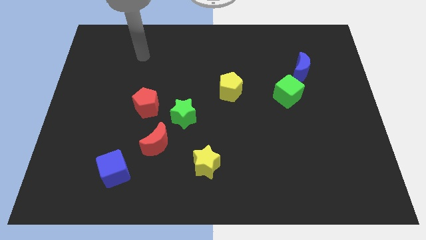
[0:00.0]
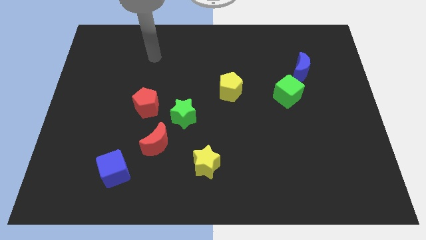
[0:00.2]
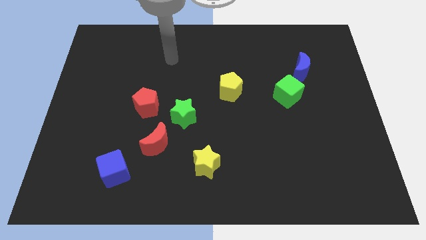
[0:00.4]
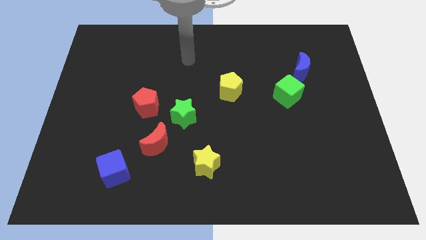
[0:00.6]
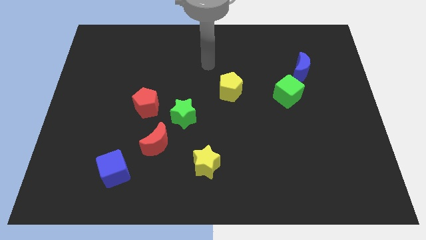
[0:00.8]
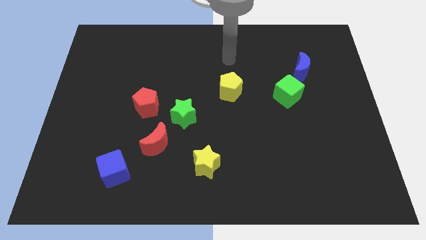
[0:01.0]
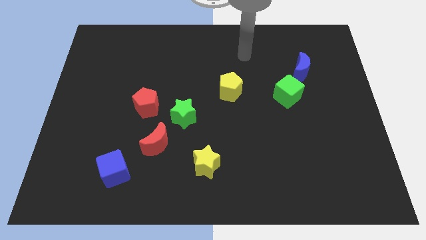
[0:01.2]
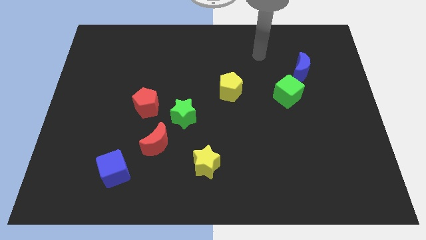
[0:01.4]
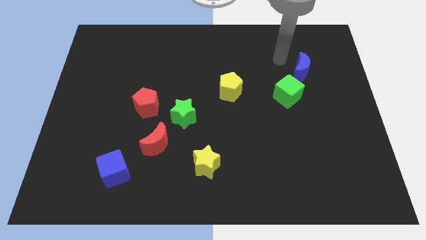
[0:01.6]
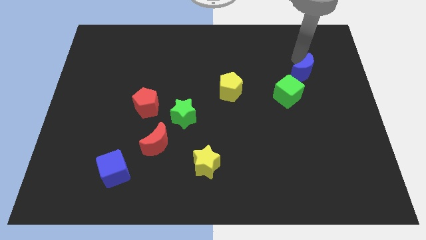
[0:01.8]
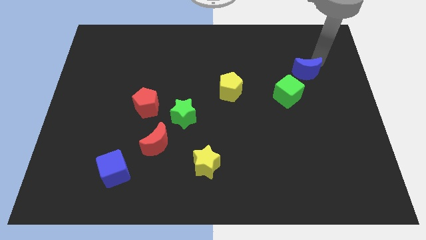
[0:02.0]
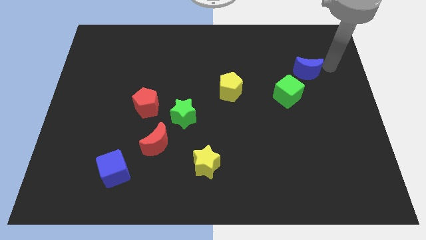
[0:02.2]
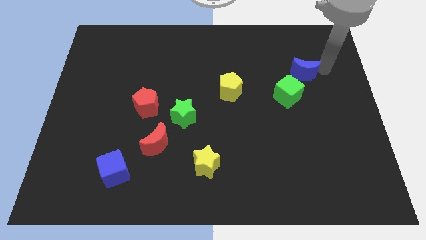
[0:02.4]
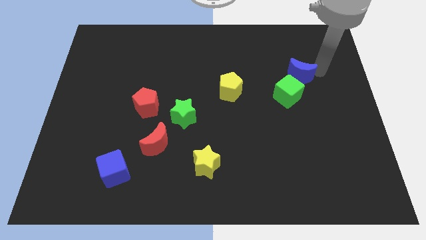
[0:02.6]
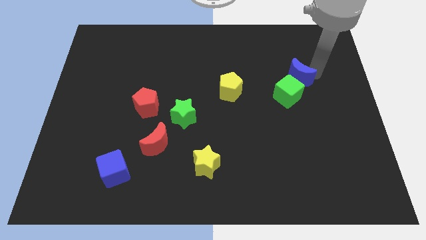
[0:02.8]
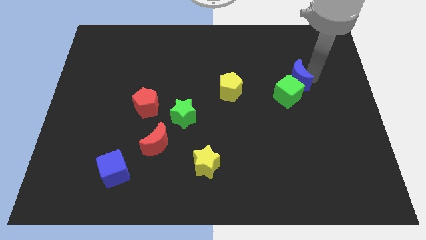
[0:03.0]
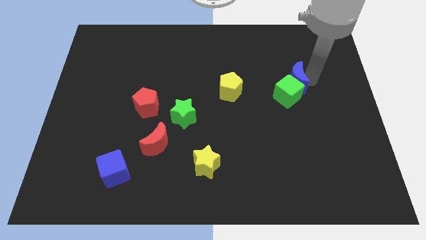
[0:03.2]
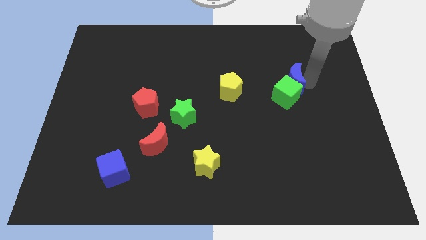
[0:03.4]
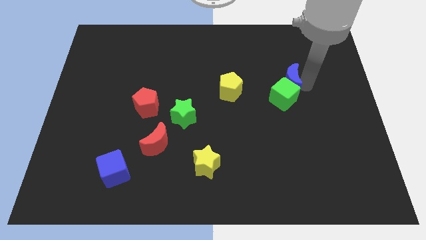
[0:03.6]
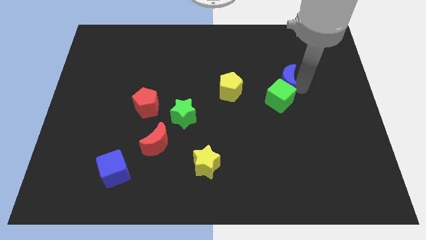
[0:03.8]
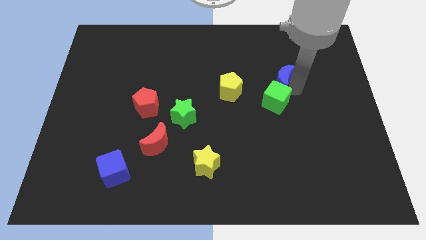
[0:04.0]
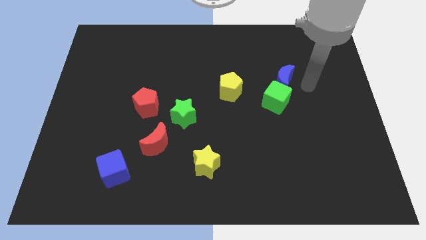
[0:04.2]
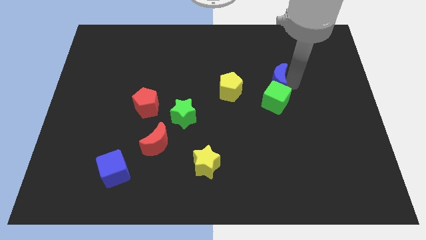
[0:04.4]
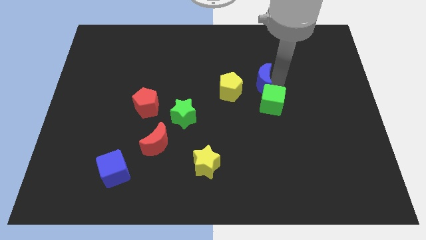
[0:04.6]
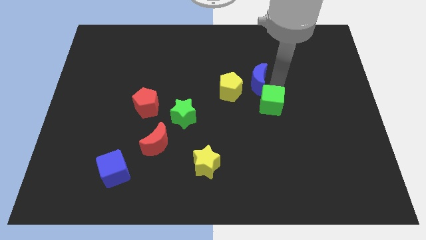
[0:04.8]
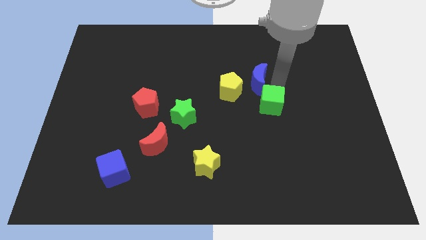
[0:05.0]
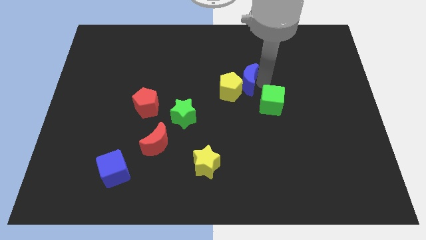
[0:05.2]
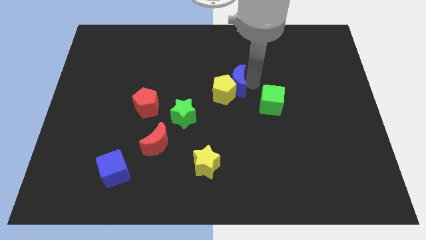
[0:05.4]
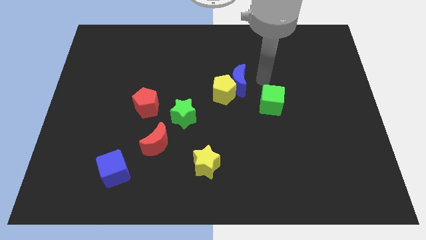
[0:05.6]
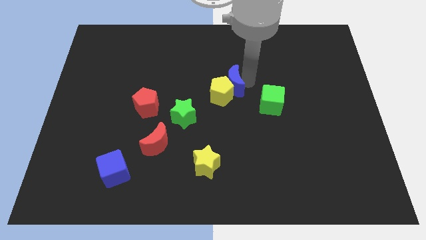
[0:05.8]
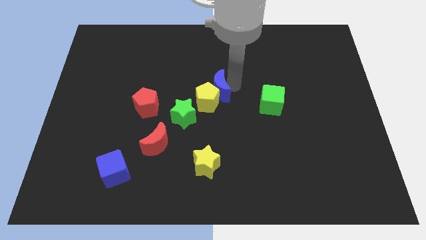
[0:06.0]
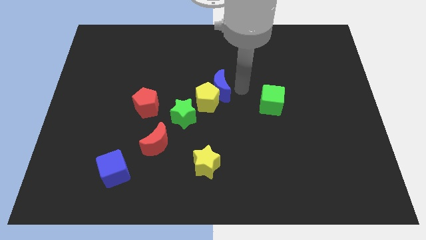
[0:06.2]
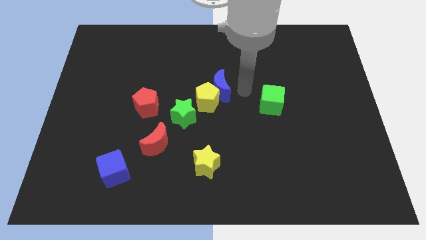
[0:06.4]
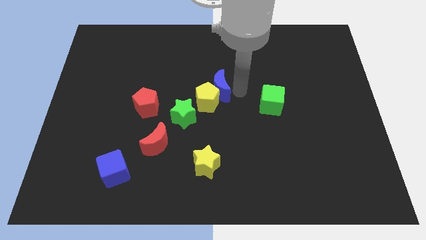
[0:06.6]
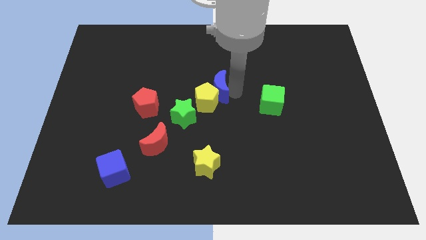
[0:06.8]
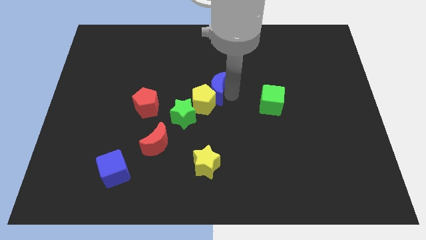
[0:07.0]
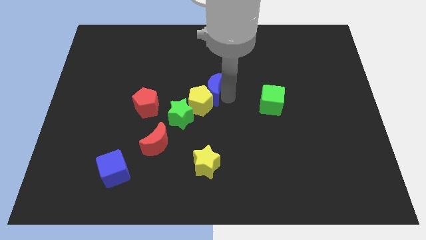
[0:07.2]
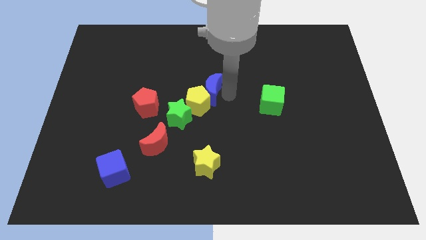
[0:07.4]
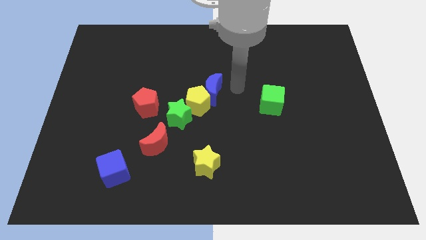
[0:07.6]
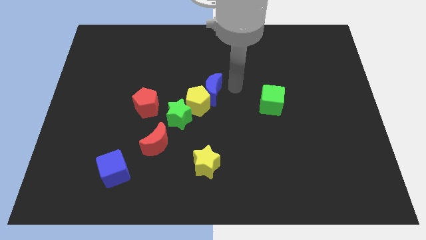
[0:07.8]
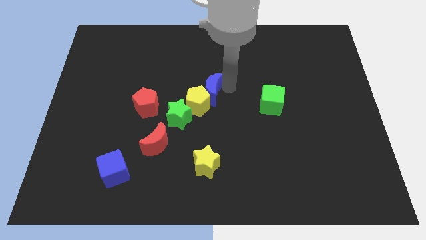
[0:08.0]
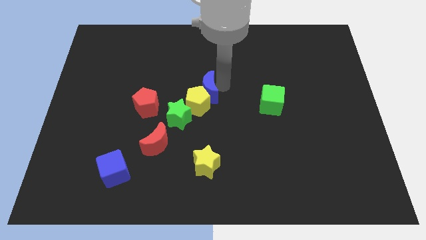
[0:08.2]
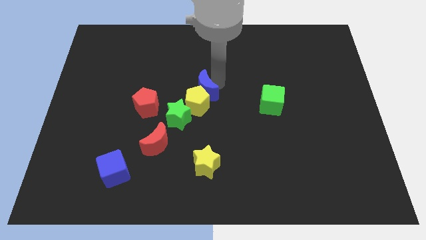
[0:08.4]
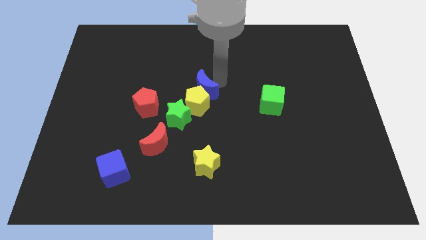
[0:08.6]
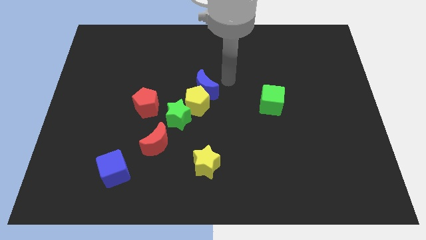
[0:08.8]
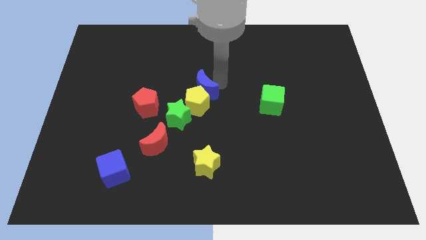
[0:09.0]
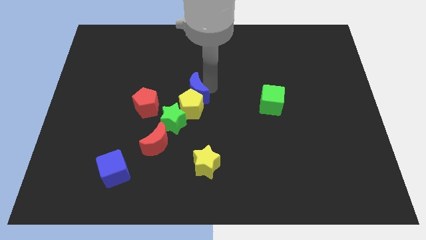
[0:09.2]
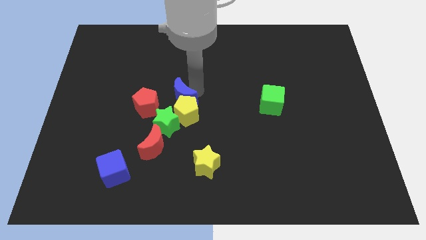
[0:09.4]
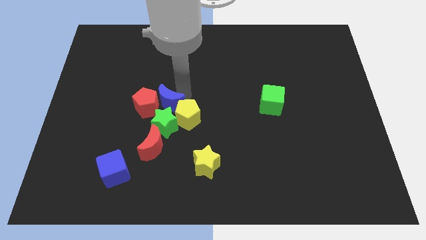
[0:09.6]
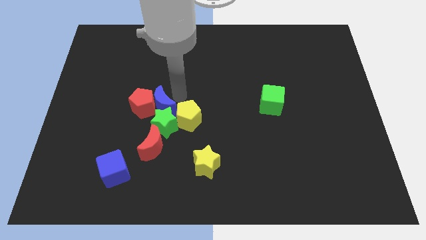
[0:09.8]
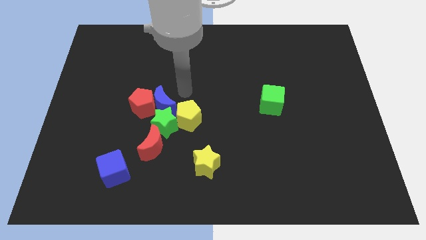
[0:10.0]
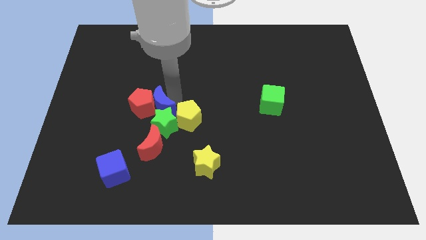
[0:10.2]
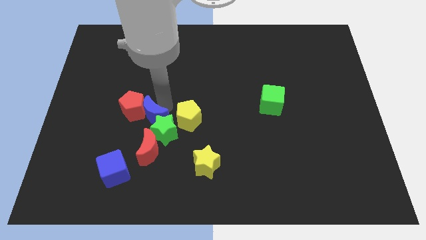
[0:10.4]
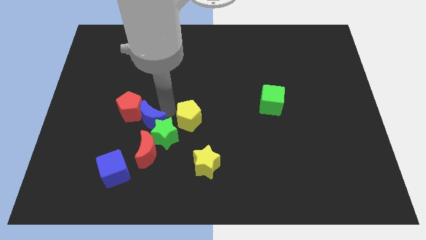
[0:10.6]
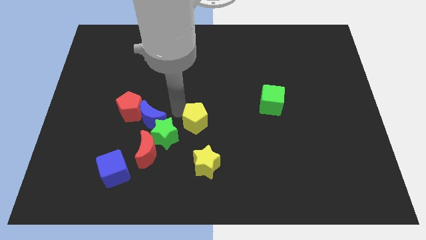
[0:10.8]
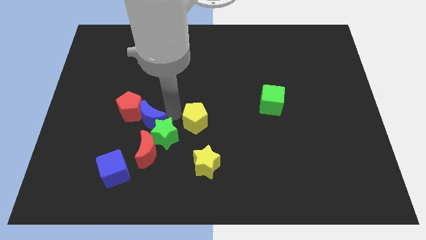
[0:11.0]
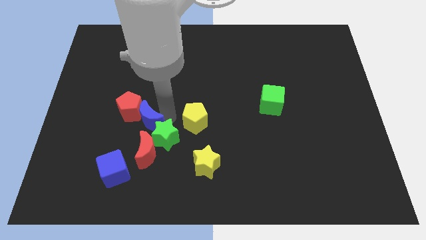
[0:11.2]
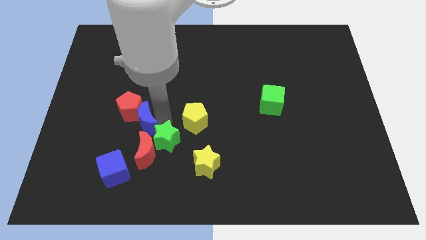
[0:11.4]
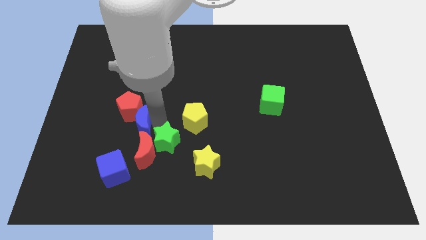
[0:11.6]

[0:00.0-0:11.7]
move the blue moon above the blue cube

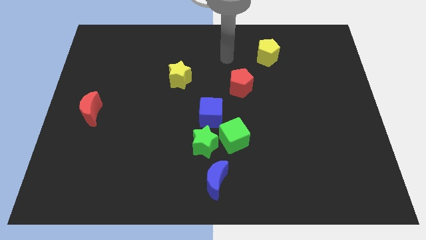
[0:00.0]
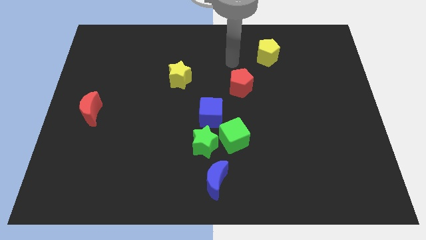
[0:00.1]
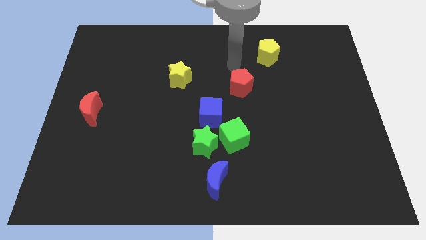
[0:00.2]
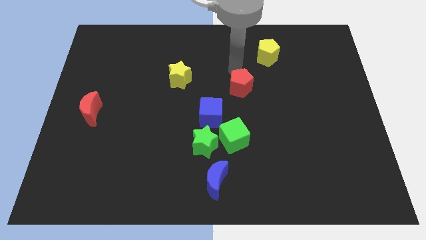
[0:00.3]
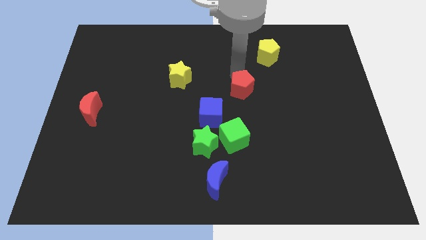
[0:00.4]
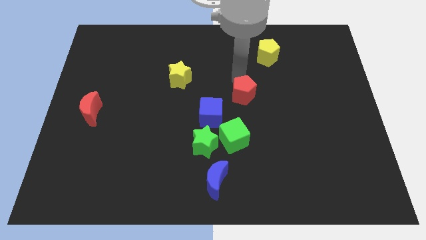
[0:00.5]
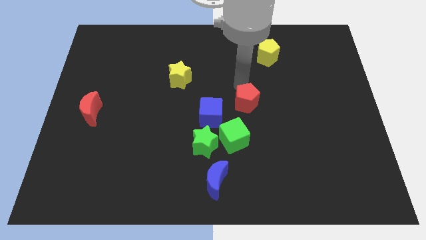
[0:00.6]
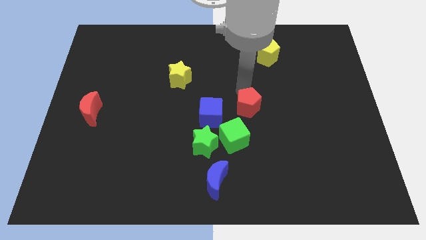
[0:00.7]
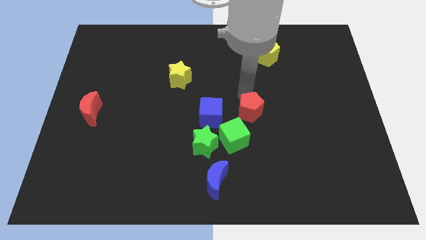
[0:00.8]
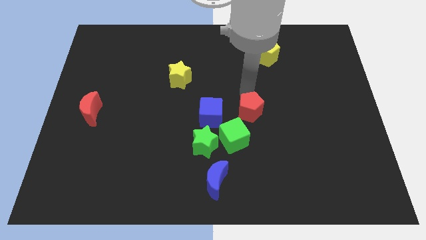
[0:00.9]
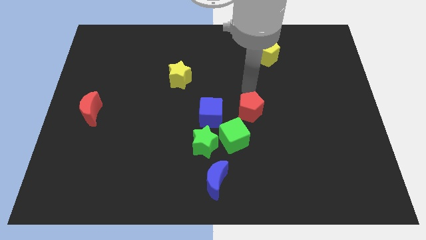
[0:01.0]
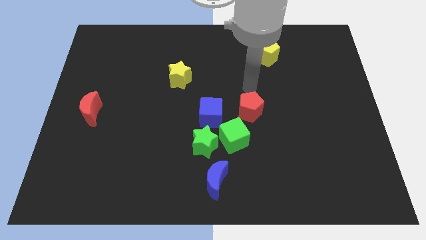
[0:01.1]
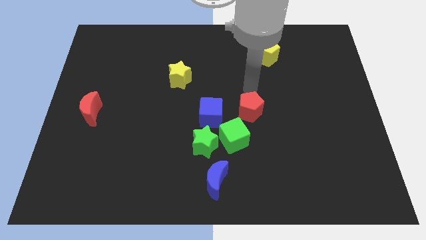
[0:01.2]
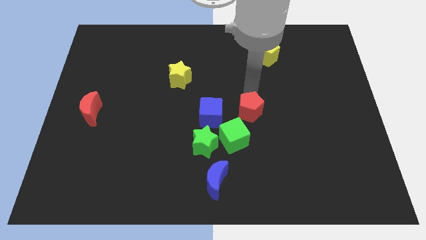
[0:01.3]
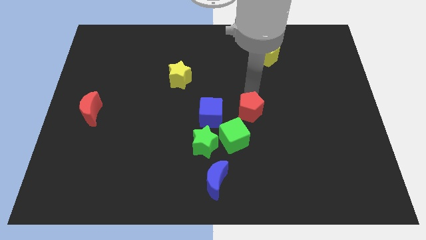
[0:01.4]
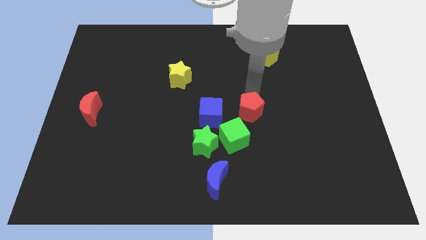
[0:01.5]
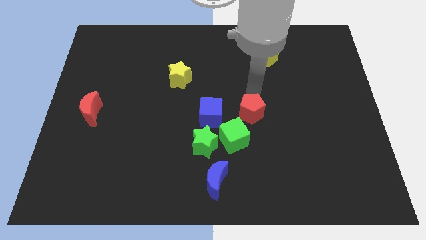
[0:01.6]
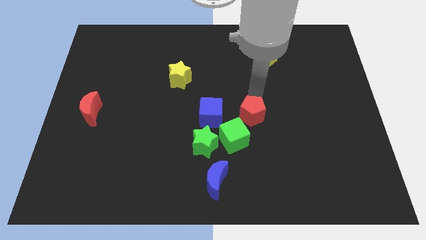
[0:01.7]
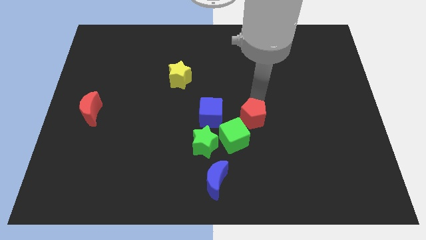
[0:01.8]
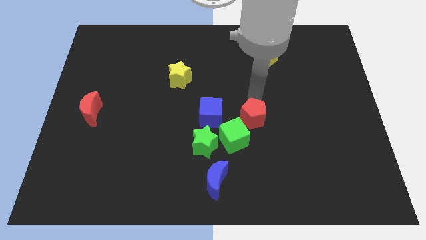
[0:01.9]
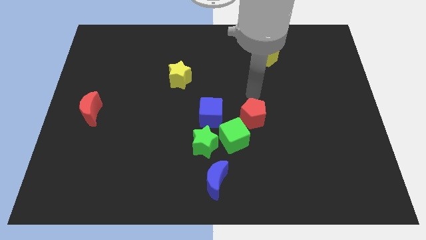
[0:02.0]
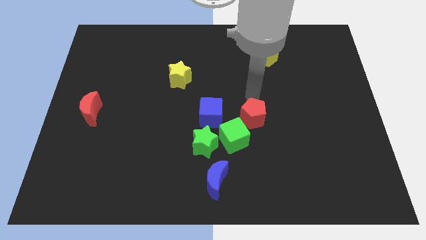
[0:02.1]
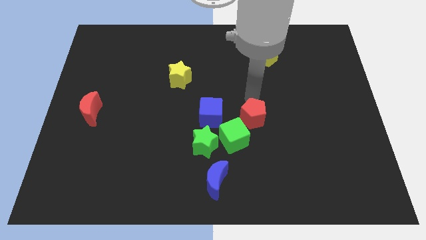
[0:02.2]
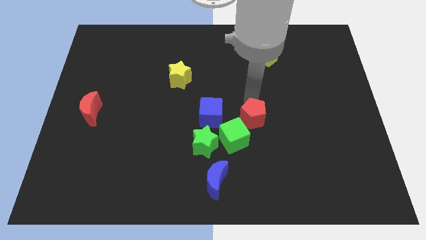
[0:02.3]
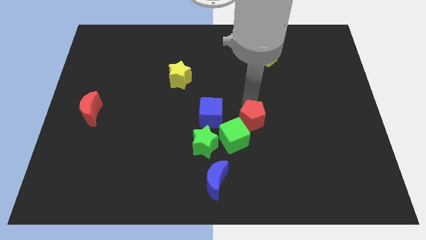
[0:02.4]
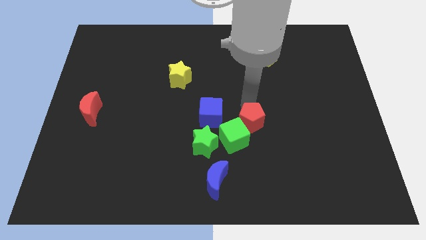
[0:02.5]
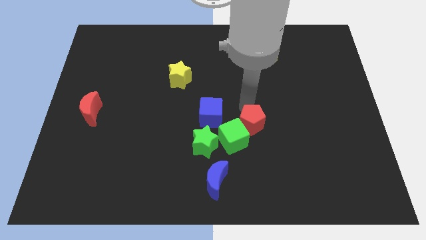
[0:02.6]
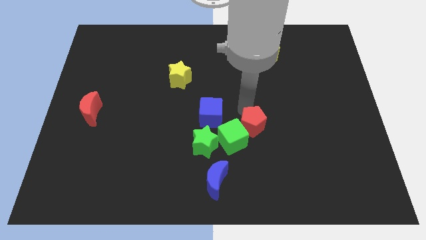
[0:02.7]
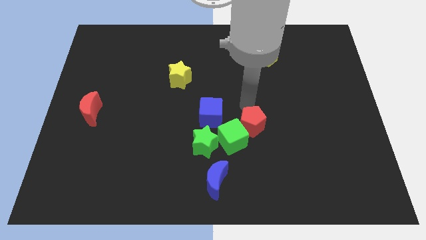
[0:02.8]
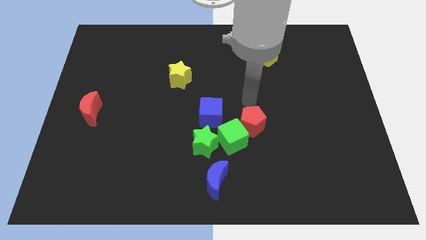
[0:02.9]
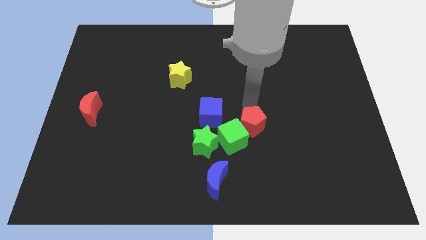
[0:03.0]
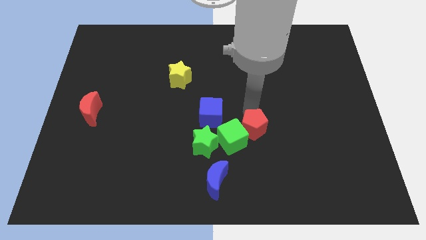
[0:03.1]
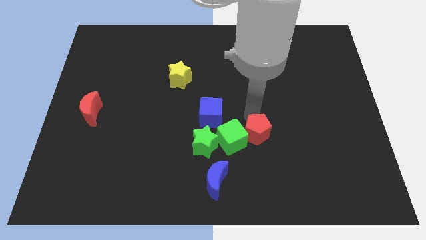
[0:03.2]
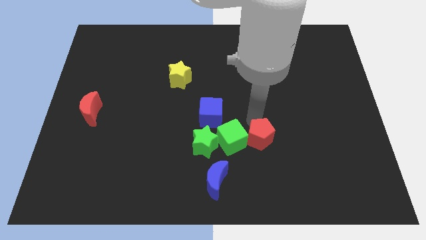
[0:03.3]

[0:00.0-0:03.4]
put the red pentagon to the bottom right side of the green cube
